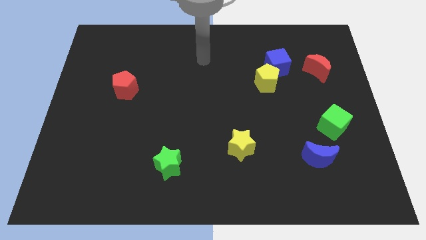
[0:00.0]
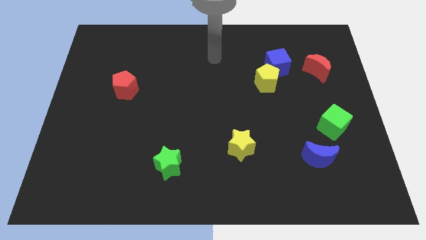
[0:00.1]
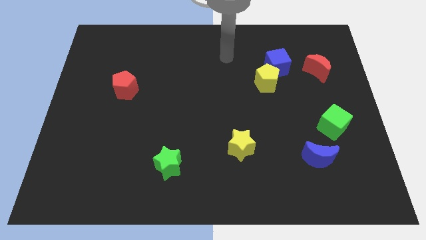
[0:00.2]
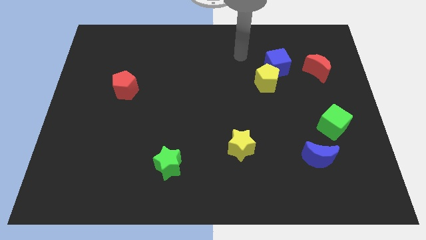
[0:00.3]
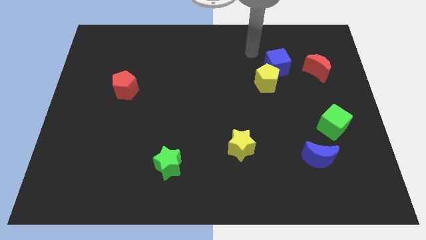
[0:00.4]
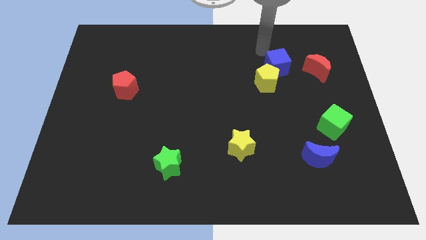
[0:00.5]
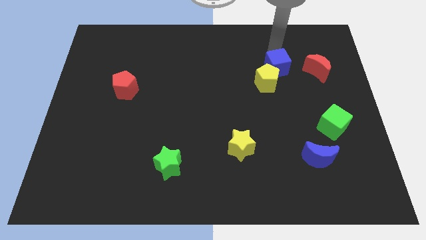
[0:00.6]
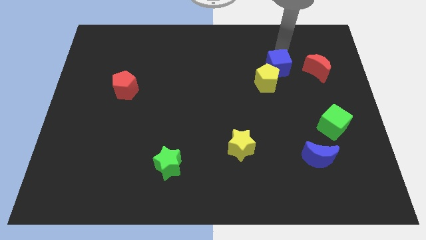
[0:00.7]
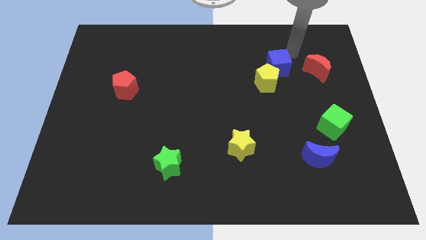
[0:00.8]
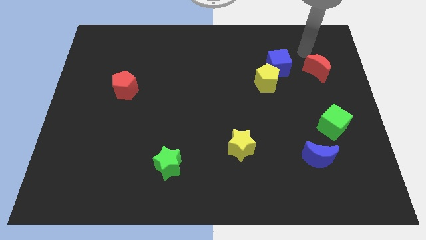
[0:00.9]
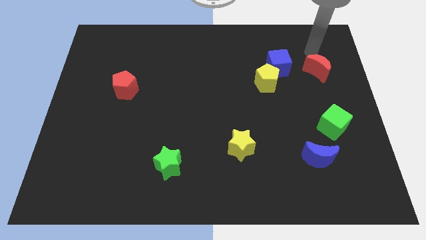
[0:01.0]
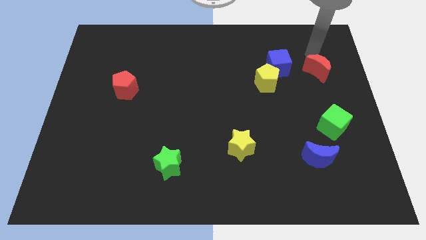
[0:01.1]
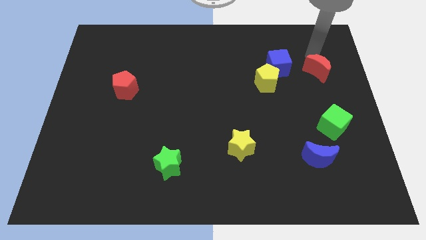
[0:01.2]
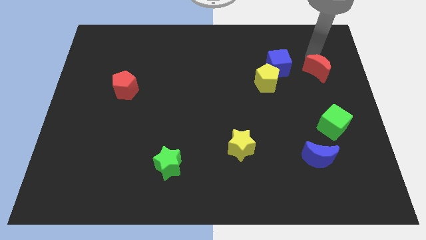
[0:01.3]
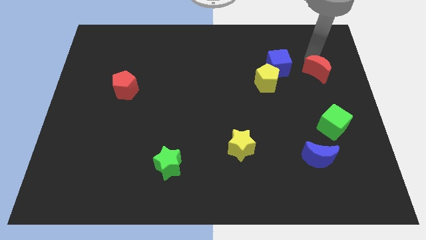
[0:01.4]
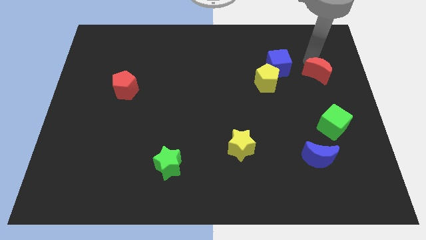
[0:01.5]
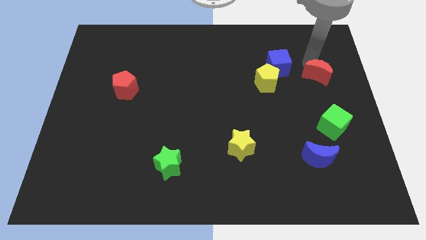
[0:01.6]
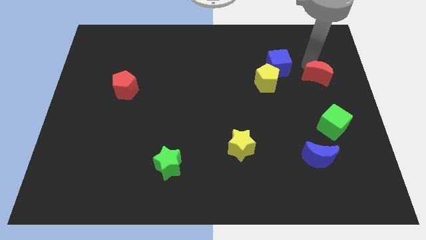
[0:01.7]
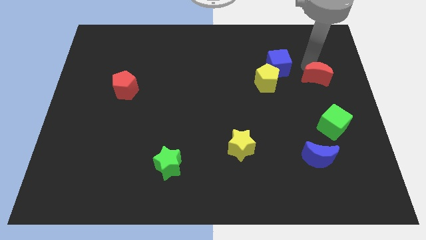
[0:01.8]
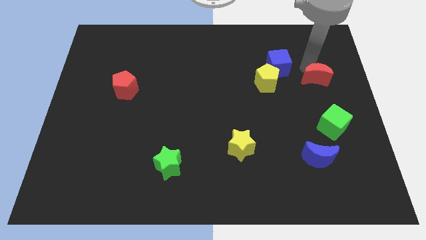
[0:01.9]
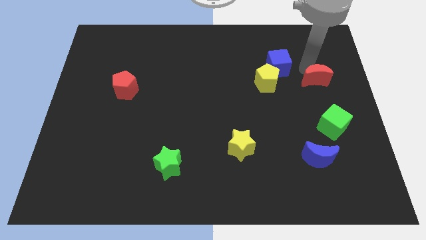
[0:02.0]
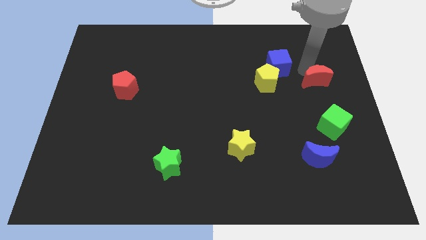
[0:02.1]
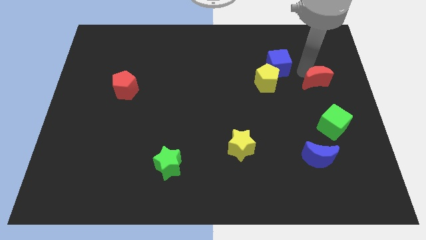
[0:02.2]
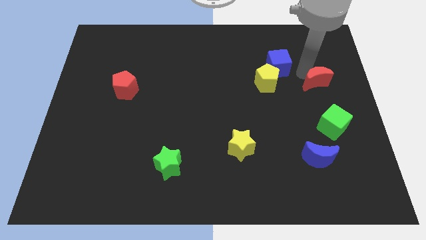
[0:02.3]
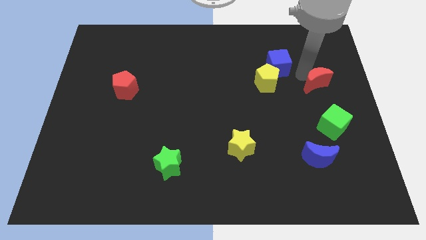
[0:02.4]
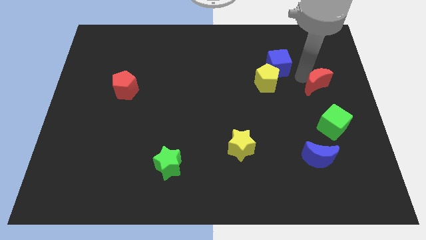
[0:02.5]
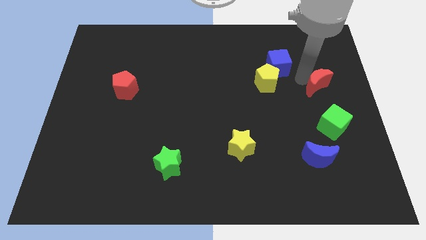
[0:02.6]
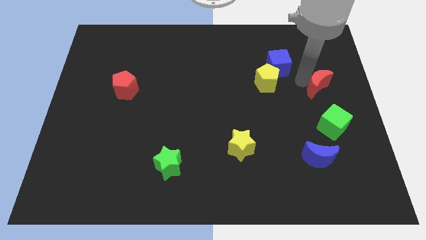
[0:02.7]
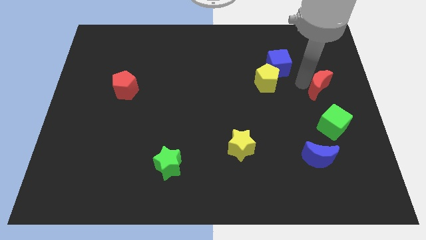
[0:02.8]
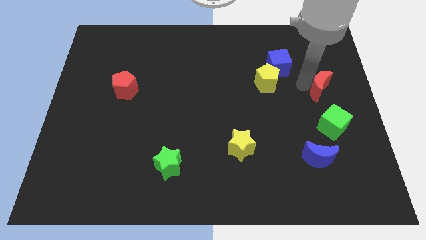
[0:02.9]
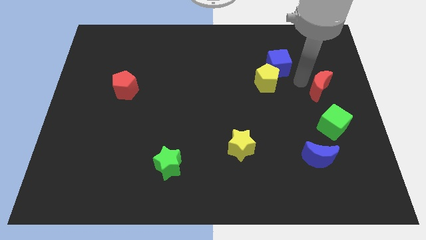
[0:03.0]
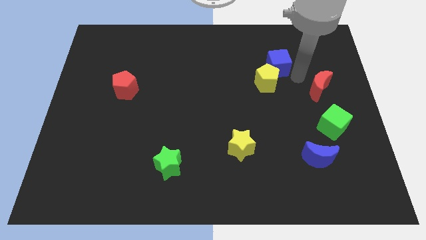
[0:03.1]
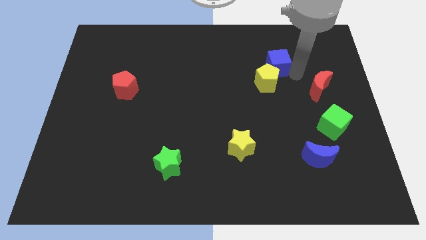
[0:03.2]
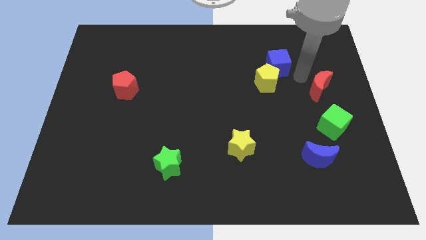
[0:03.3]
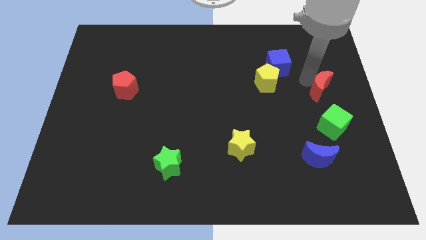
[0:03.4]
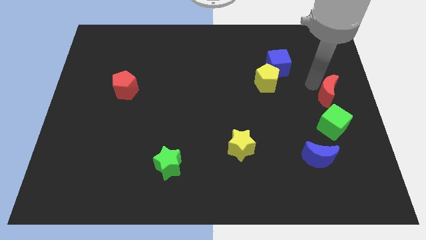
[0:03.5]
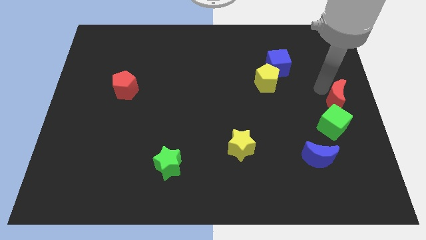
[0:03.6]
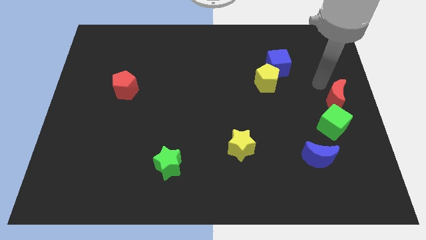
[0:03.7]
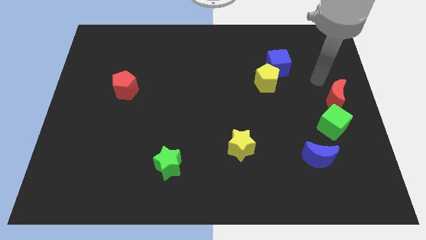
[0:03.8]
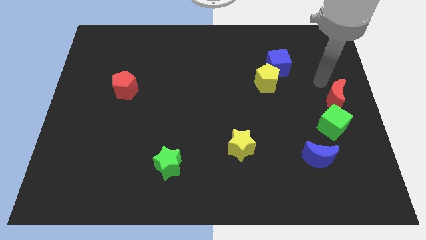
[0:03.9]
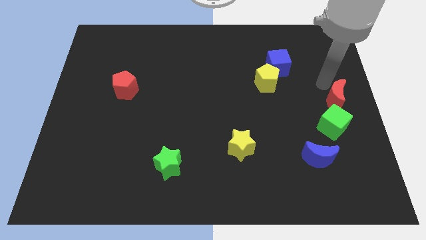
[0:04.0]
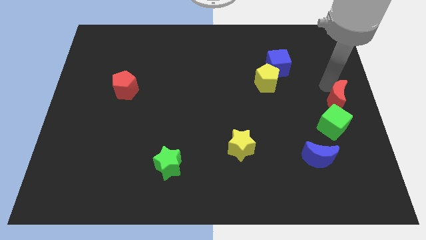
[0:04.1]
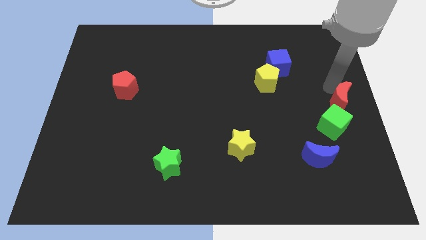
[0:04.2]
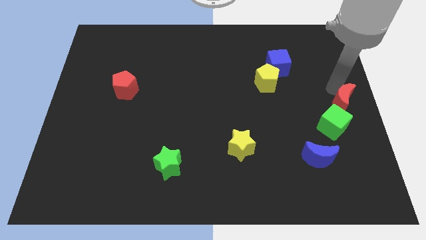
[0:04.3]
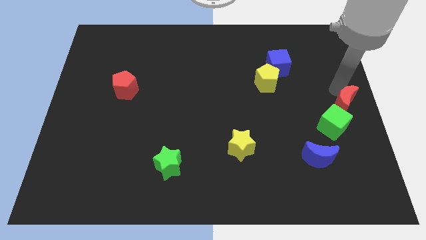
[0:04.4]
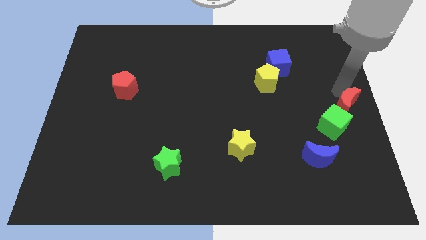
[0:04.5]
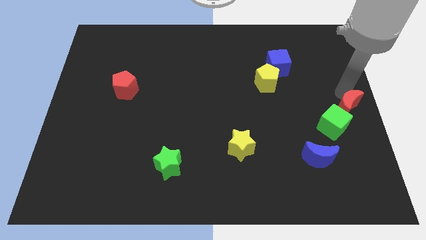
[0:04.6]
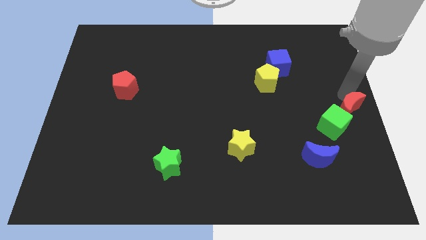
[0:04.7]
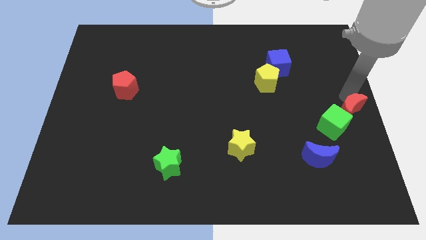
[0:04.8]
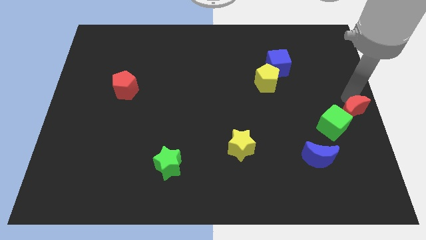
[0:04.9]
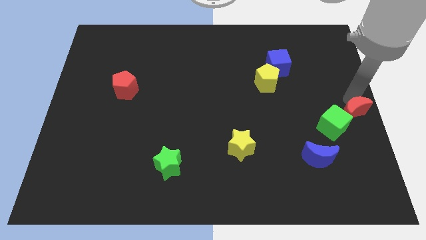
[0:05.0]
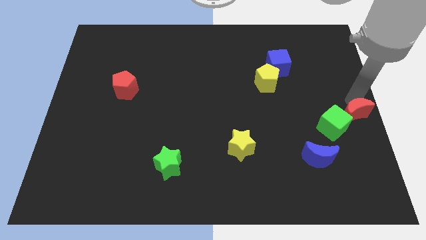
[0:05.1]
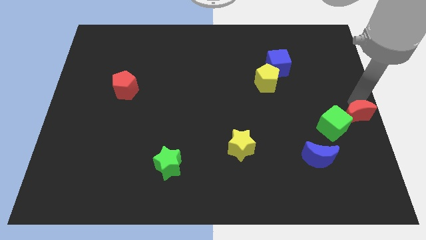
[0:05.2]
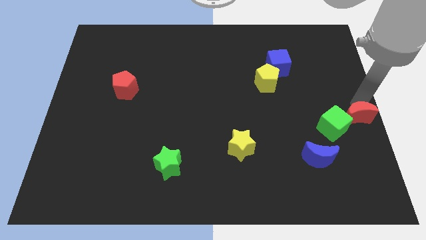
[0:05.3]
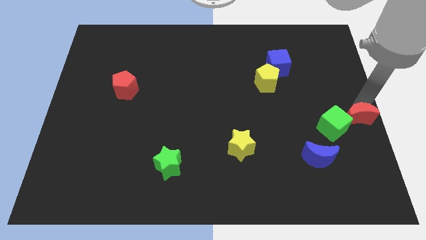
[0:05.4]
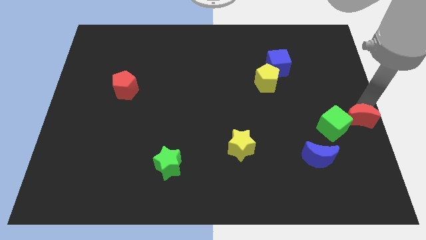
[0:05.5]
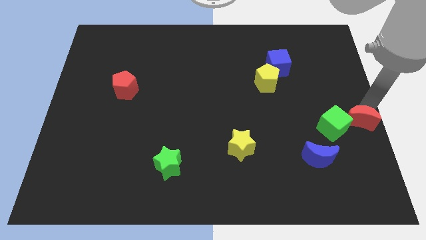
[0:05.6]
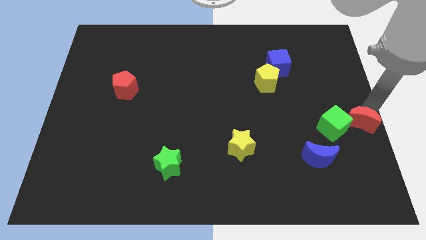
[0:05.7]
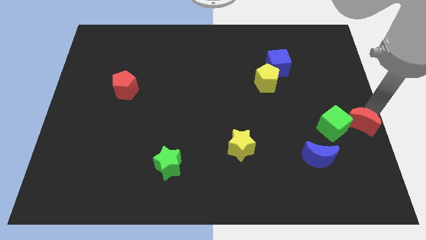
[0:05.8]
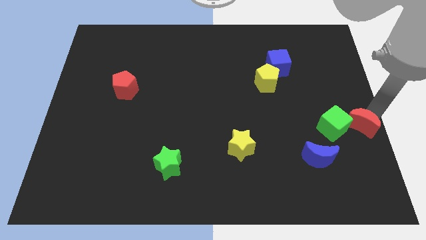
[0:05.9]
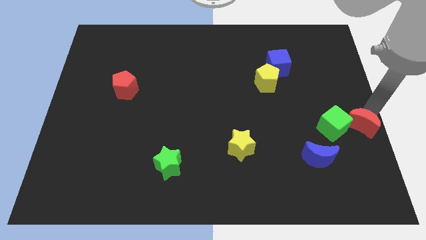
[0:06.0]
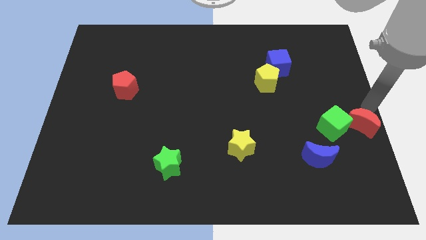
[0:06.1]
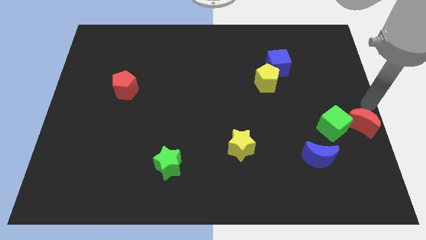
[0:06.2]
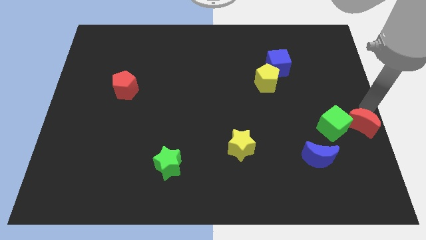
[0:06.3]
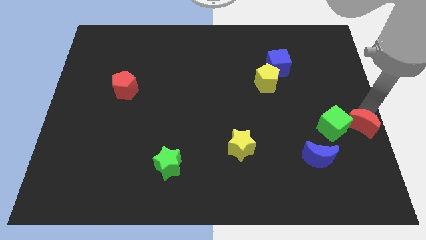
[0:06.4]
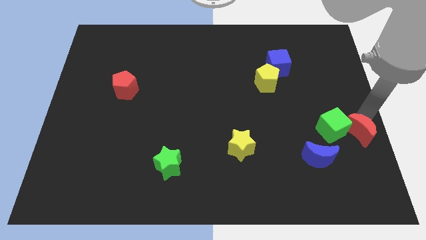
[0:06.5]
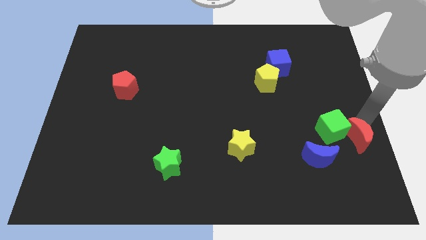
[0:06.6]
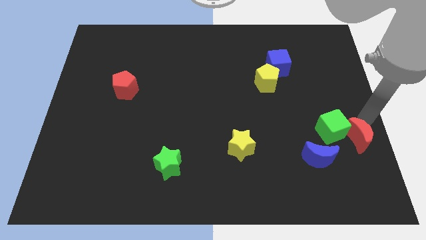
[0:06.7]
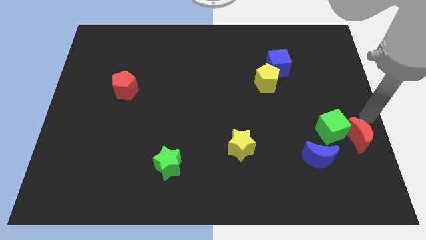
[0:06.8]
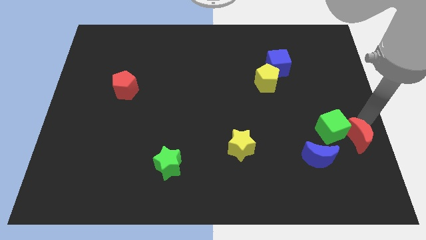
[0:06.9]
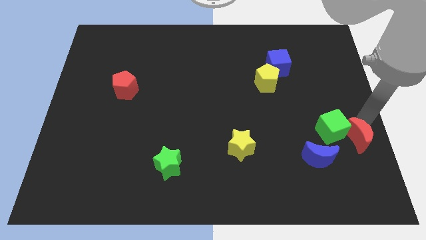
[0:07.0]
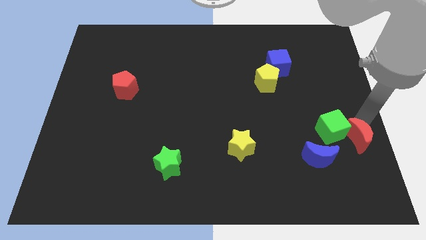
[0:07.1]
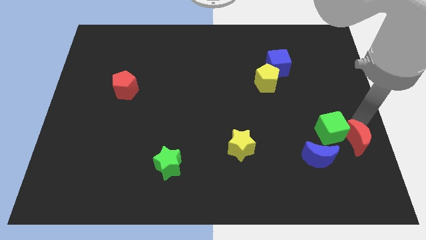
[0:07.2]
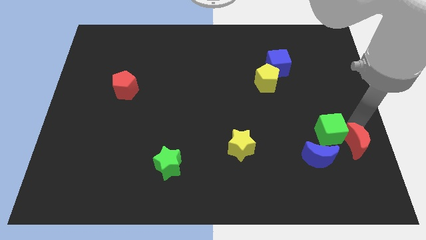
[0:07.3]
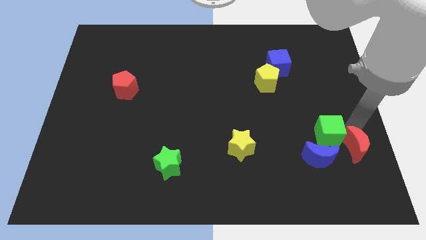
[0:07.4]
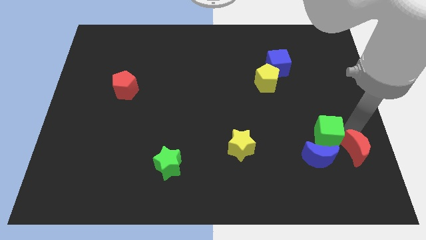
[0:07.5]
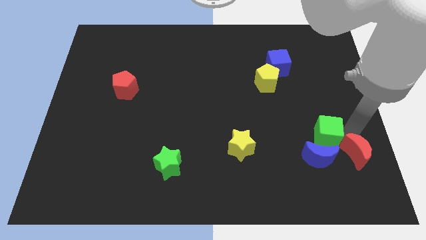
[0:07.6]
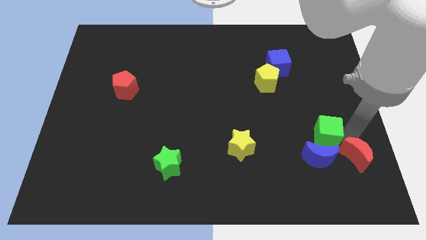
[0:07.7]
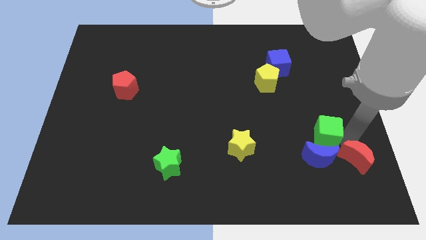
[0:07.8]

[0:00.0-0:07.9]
slide the red moon below the green cube
